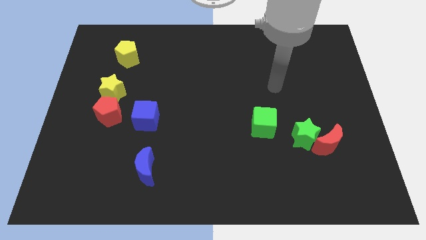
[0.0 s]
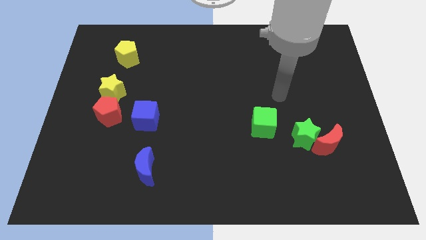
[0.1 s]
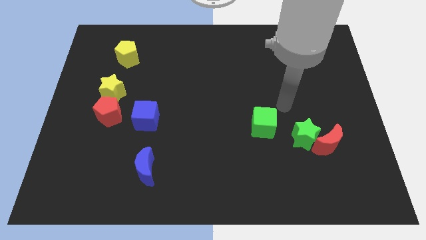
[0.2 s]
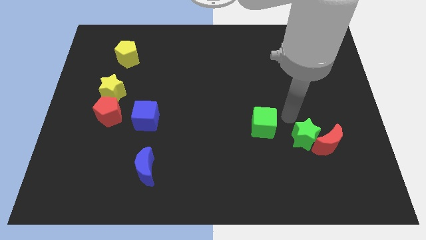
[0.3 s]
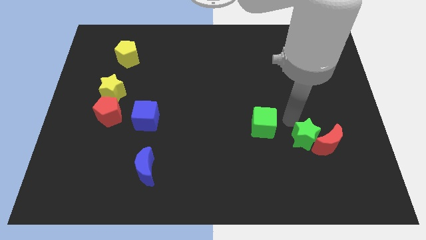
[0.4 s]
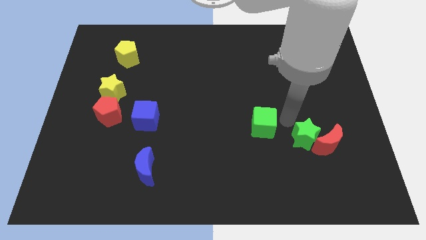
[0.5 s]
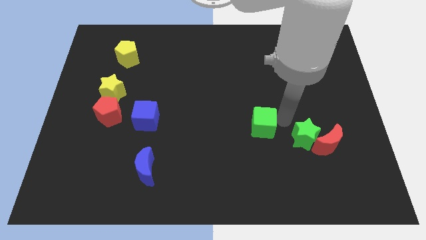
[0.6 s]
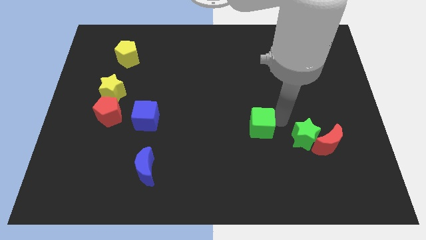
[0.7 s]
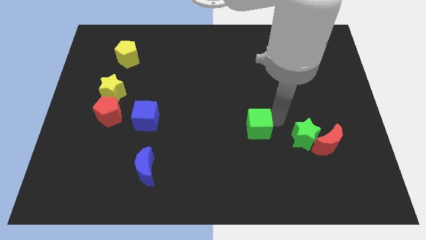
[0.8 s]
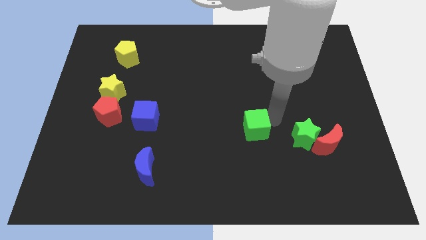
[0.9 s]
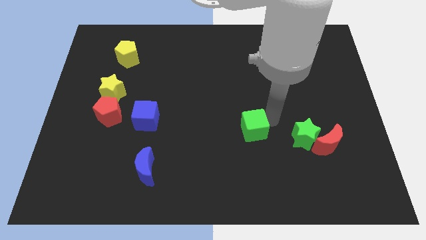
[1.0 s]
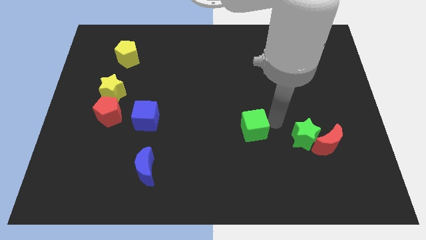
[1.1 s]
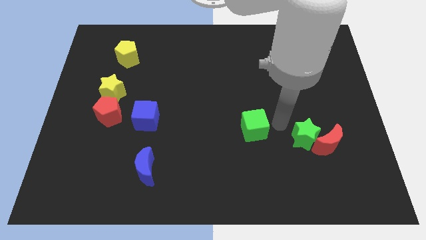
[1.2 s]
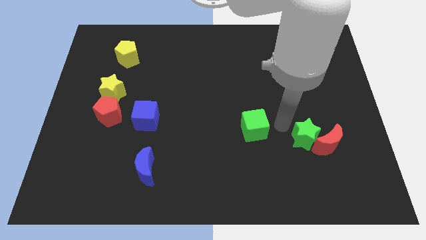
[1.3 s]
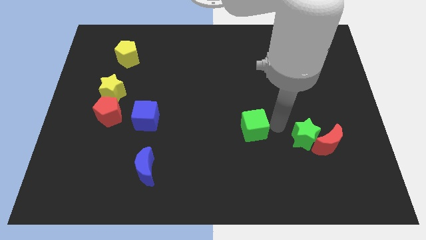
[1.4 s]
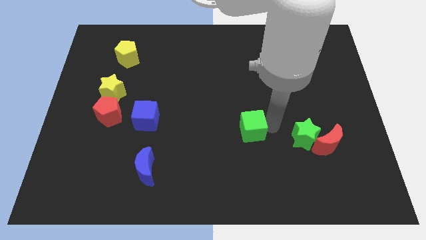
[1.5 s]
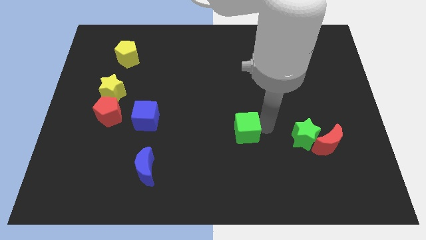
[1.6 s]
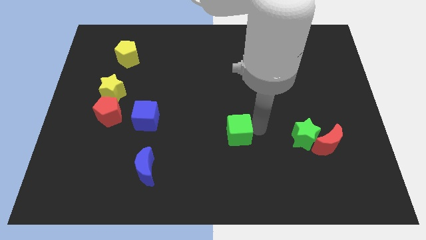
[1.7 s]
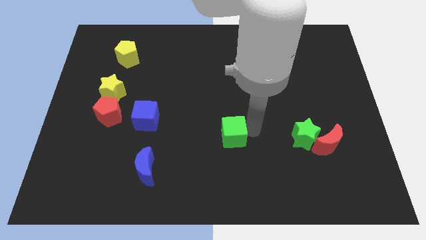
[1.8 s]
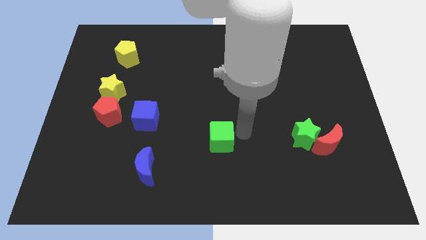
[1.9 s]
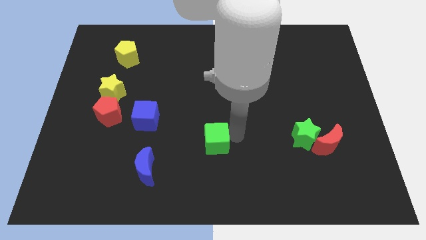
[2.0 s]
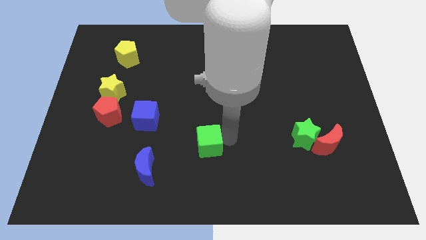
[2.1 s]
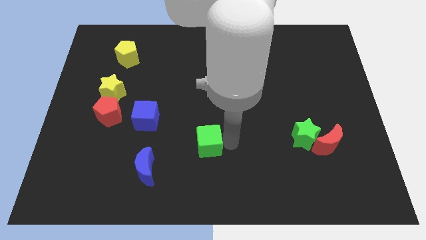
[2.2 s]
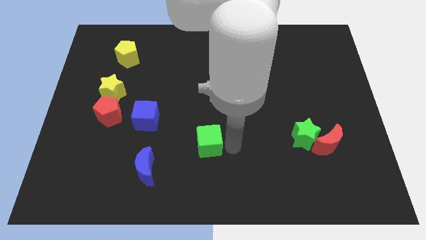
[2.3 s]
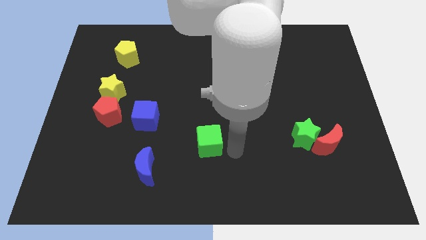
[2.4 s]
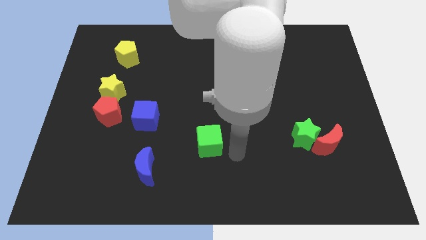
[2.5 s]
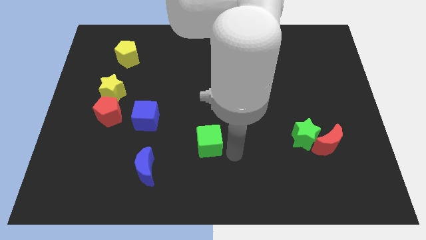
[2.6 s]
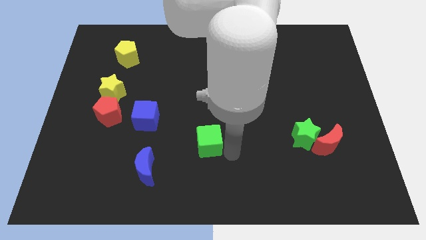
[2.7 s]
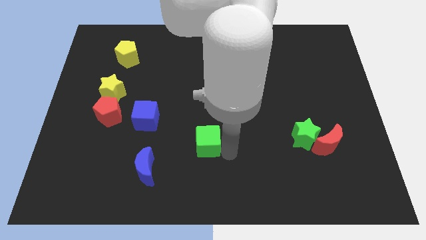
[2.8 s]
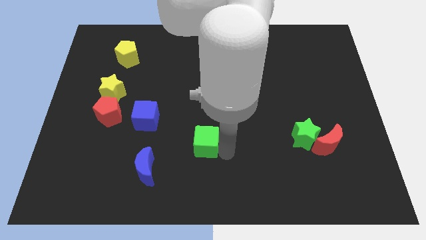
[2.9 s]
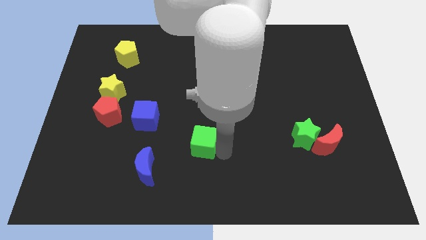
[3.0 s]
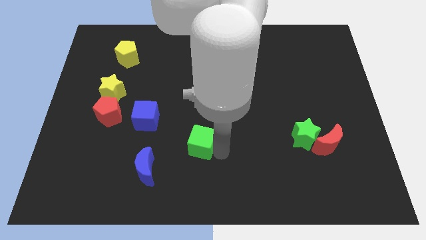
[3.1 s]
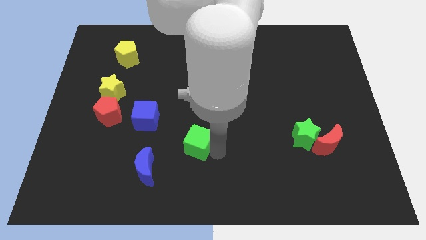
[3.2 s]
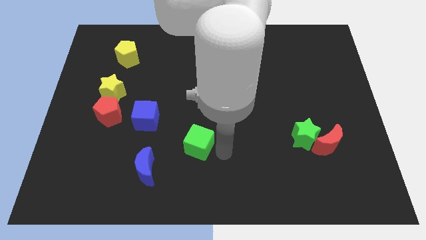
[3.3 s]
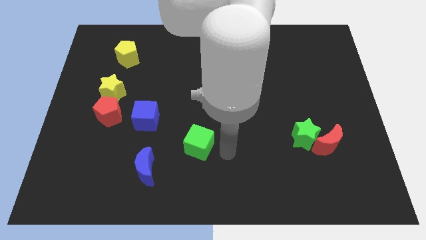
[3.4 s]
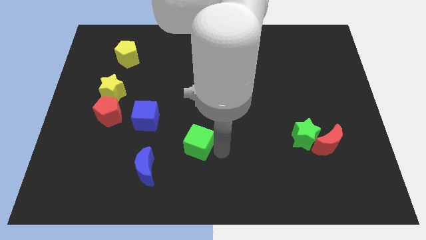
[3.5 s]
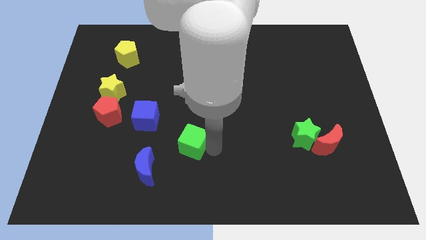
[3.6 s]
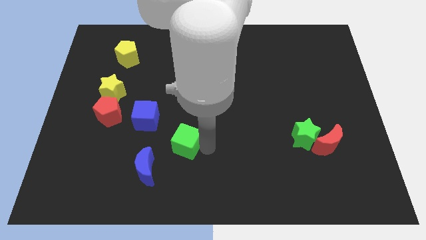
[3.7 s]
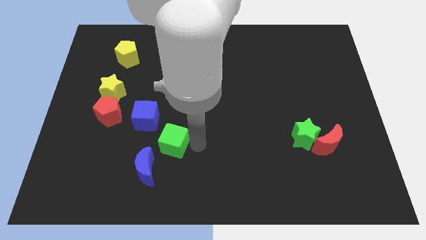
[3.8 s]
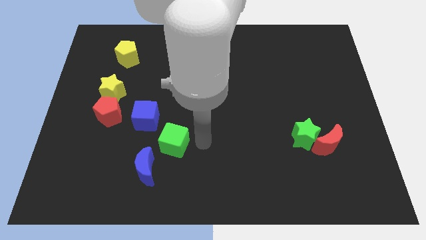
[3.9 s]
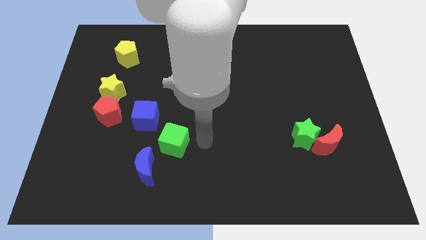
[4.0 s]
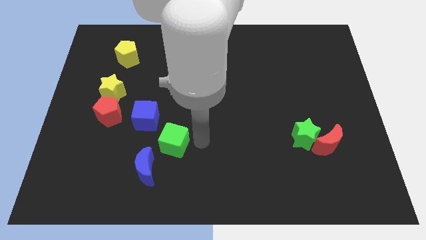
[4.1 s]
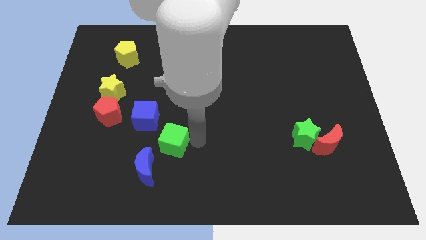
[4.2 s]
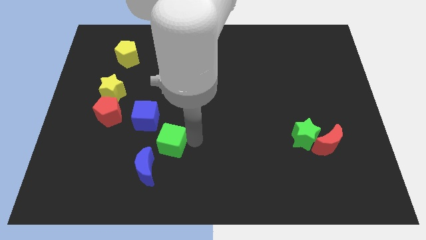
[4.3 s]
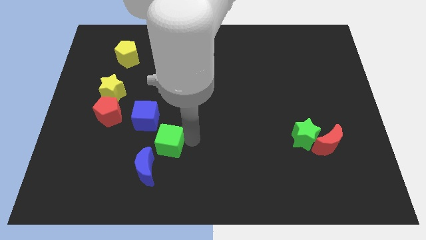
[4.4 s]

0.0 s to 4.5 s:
push the green cube left

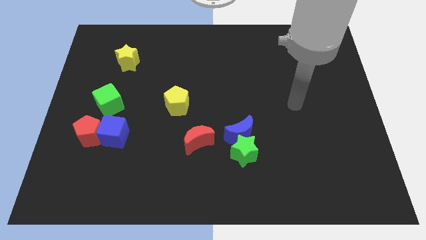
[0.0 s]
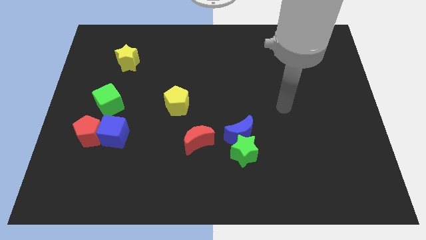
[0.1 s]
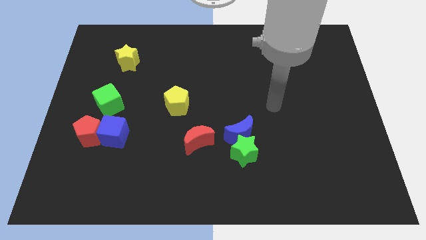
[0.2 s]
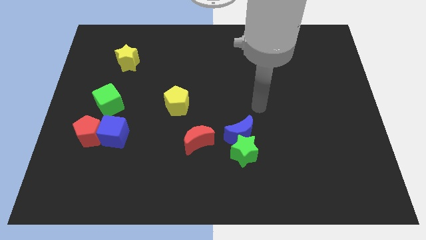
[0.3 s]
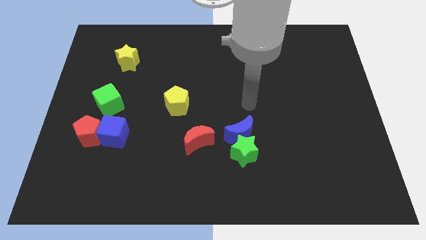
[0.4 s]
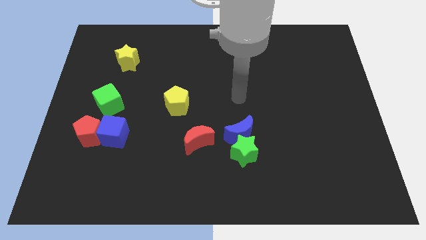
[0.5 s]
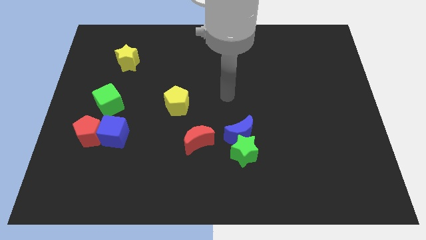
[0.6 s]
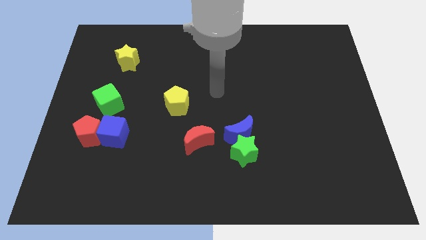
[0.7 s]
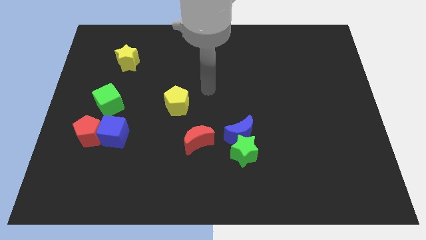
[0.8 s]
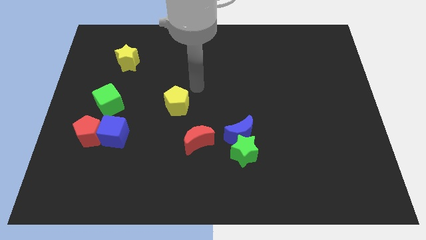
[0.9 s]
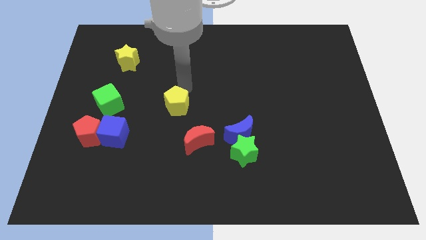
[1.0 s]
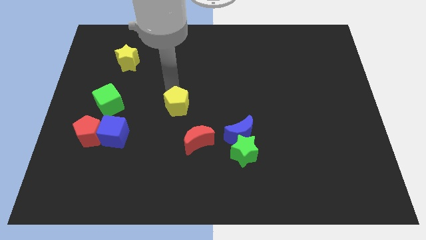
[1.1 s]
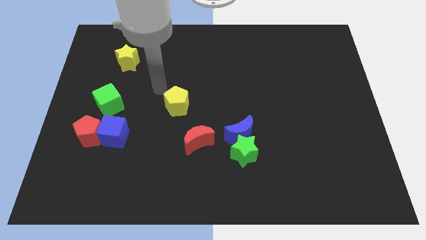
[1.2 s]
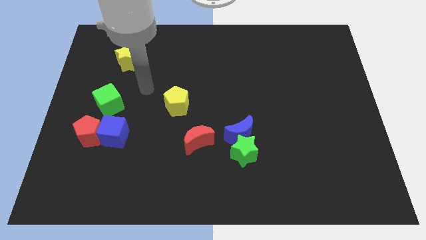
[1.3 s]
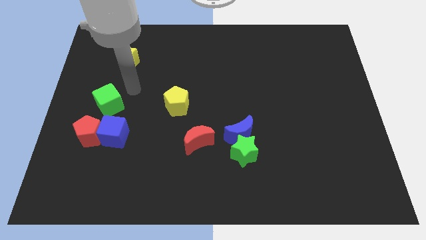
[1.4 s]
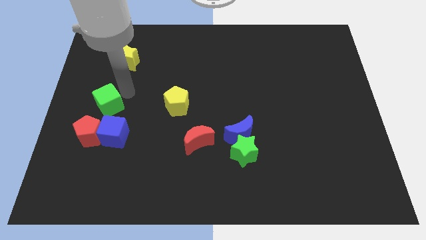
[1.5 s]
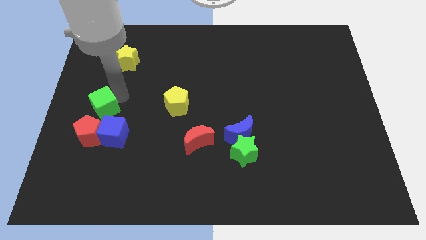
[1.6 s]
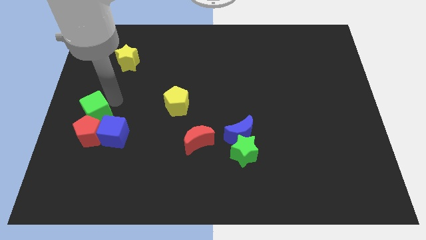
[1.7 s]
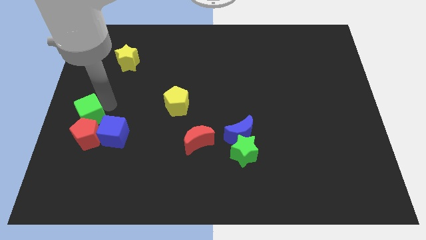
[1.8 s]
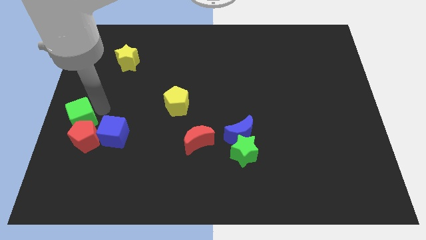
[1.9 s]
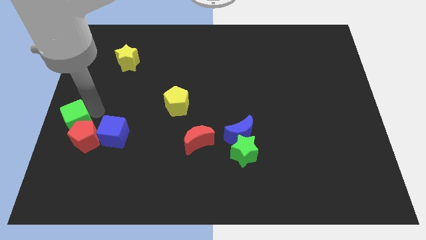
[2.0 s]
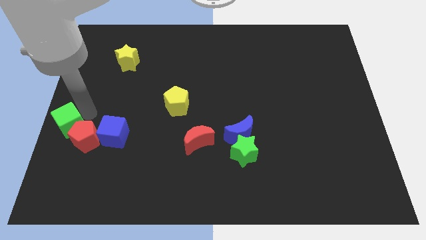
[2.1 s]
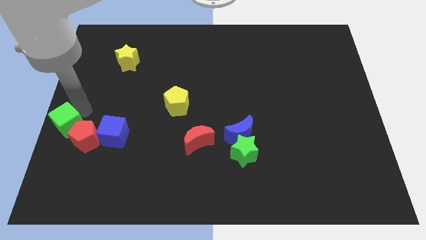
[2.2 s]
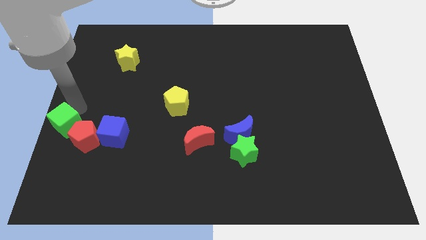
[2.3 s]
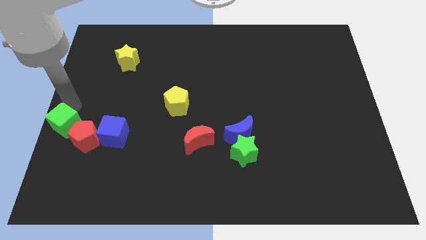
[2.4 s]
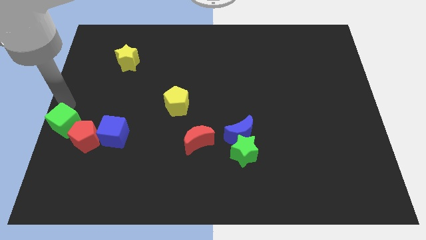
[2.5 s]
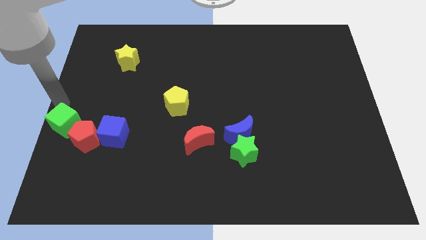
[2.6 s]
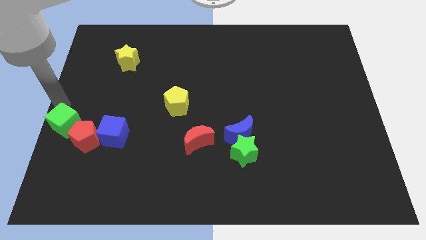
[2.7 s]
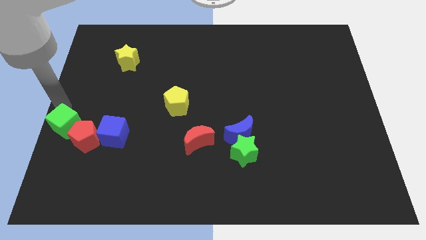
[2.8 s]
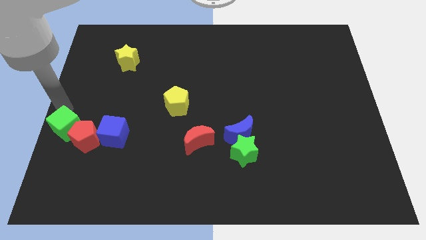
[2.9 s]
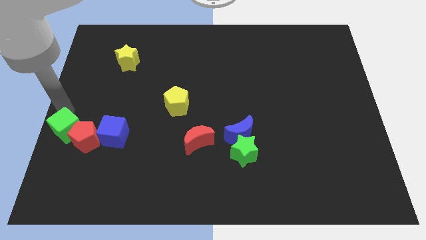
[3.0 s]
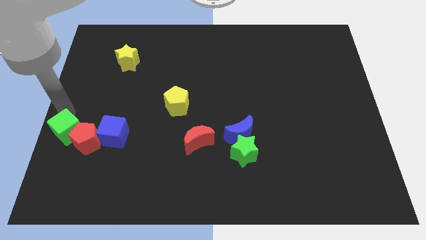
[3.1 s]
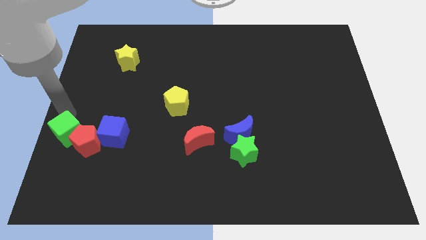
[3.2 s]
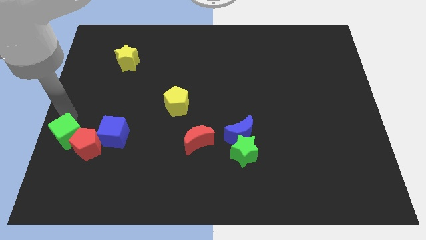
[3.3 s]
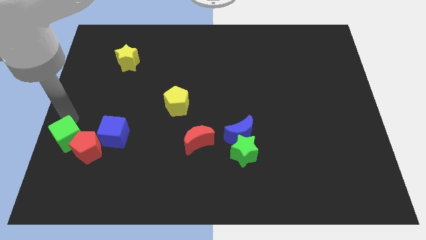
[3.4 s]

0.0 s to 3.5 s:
slide the green cube a little bit downwards
